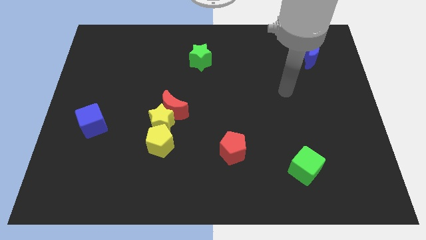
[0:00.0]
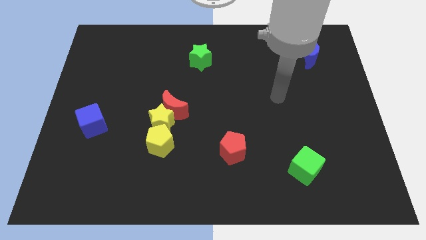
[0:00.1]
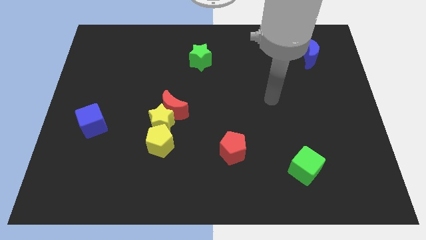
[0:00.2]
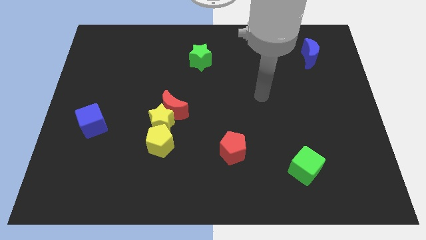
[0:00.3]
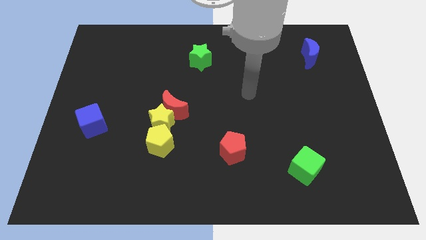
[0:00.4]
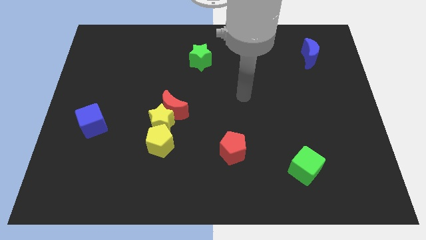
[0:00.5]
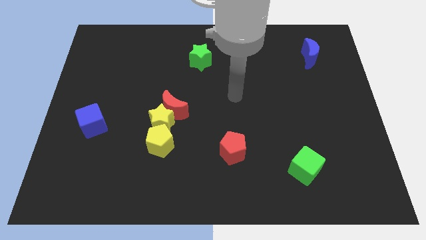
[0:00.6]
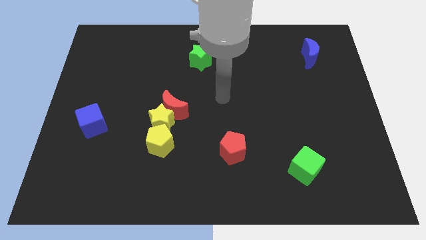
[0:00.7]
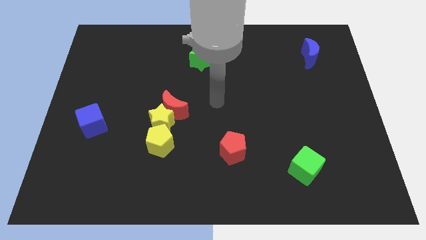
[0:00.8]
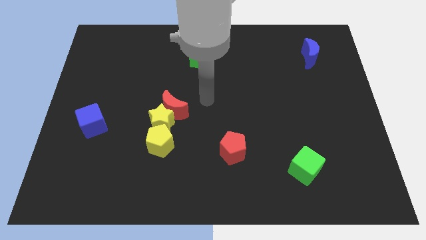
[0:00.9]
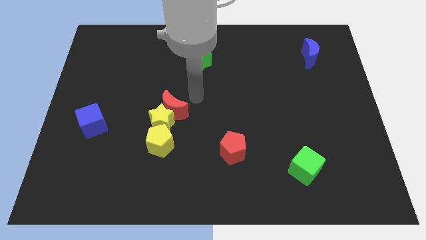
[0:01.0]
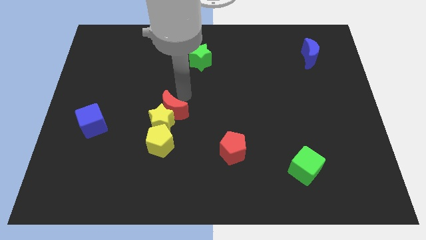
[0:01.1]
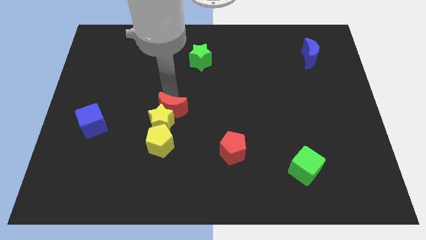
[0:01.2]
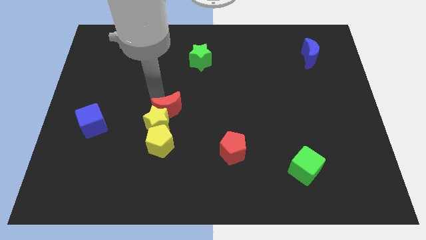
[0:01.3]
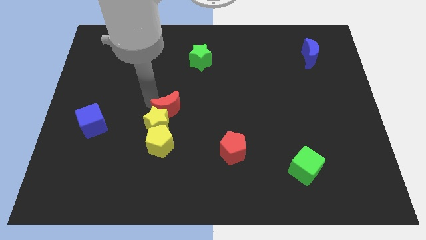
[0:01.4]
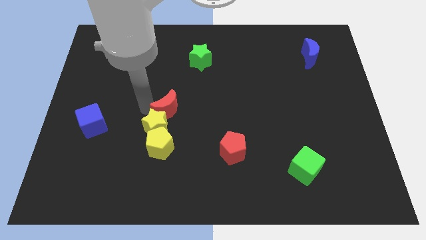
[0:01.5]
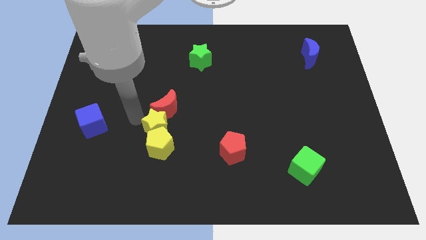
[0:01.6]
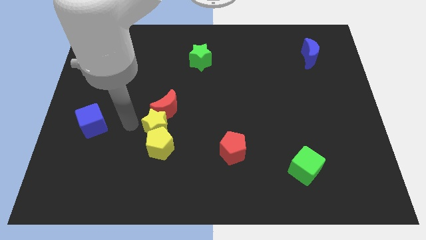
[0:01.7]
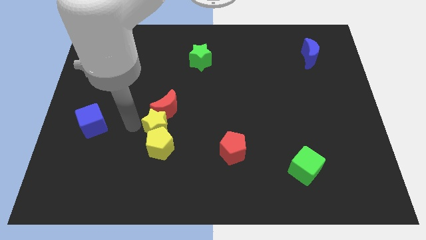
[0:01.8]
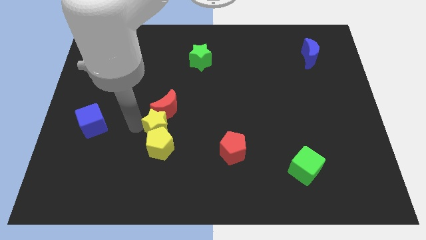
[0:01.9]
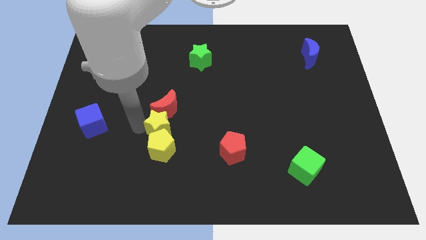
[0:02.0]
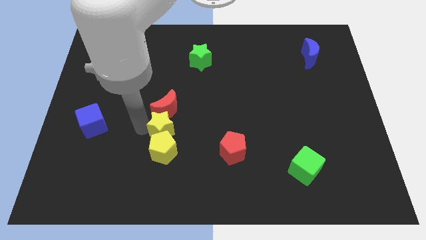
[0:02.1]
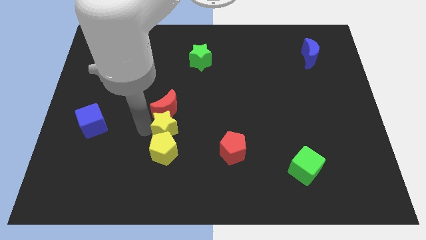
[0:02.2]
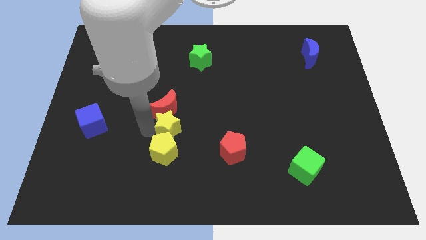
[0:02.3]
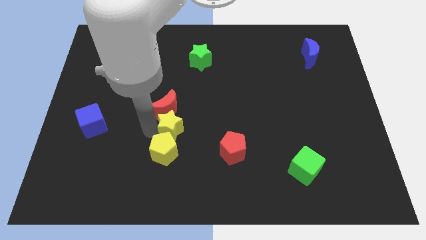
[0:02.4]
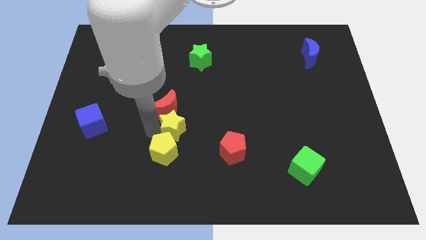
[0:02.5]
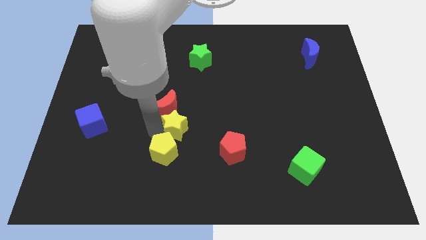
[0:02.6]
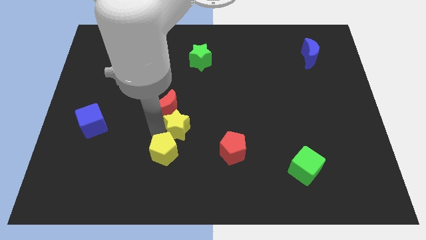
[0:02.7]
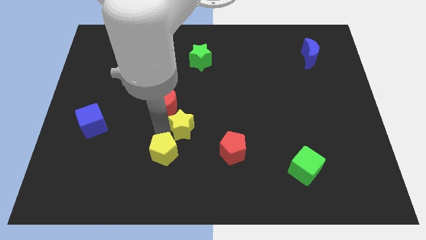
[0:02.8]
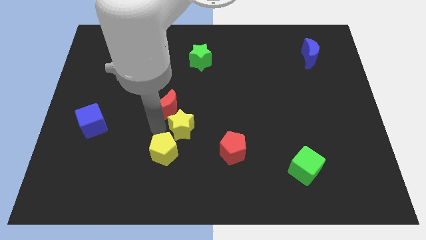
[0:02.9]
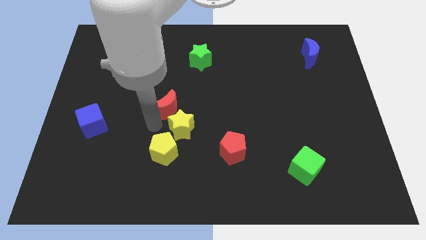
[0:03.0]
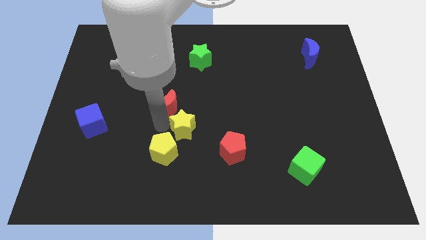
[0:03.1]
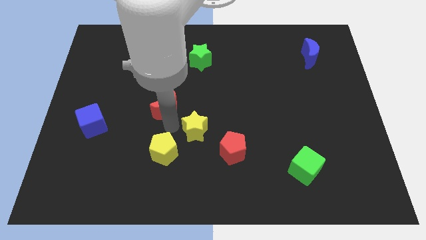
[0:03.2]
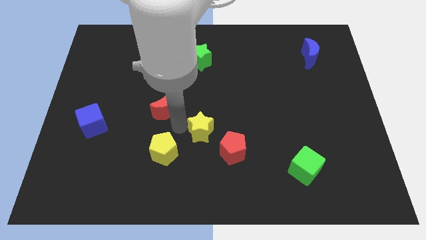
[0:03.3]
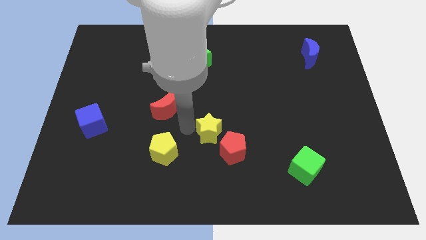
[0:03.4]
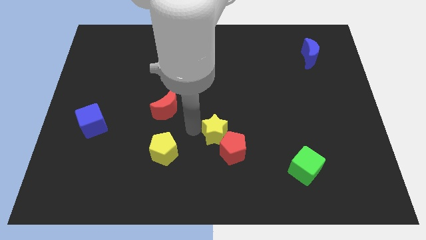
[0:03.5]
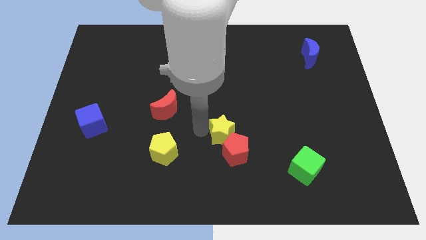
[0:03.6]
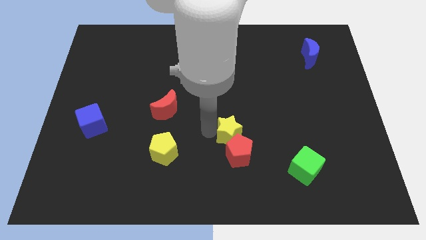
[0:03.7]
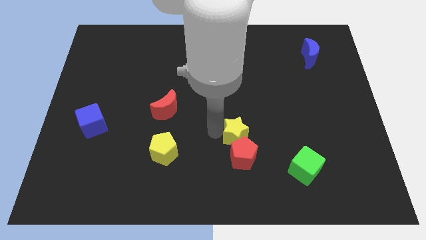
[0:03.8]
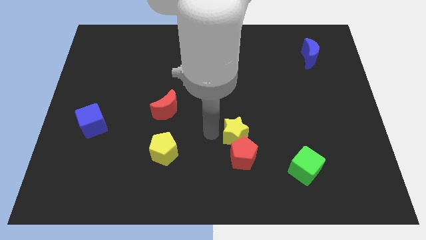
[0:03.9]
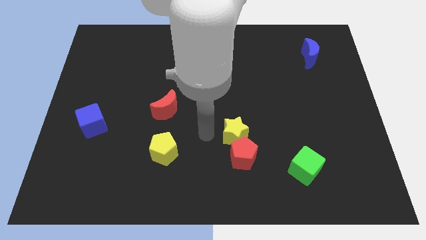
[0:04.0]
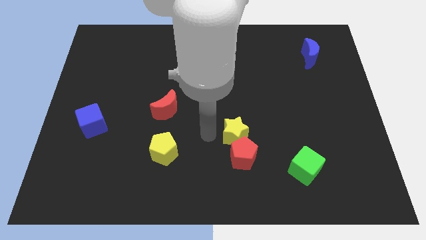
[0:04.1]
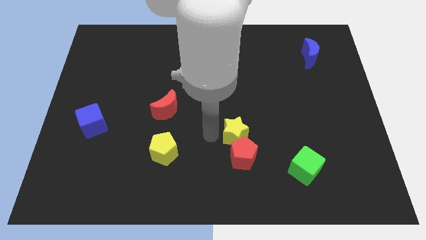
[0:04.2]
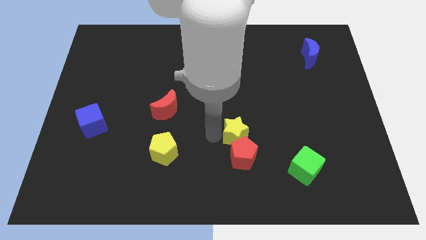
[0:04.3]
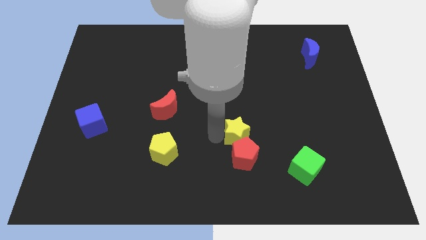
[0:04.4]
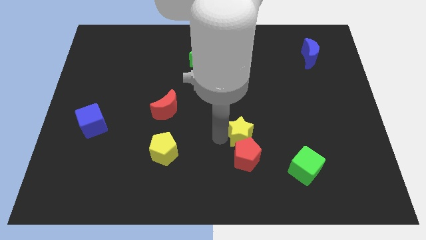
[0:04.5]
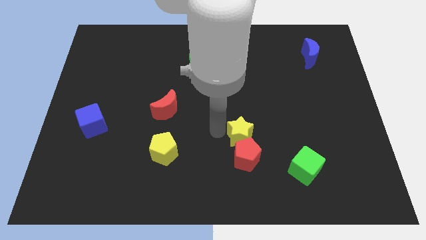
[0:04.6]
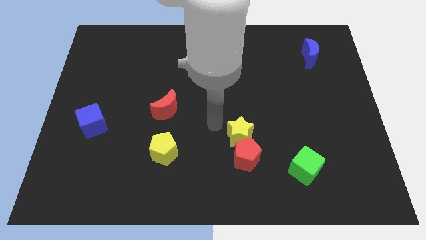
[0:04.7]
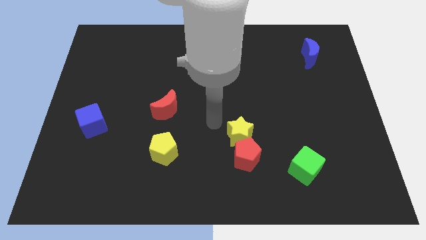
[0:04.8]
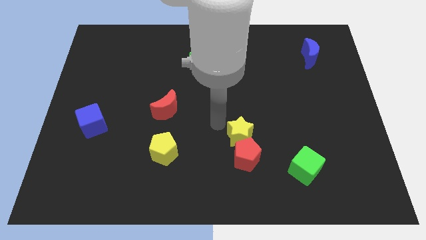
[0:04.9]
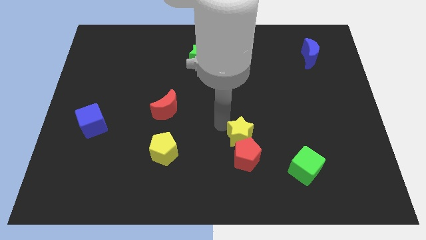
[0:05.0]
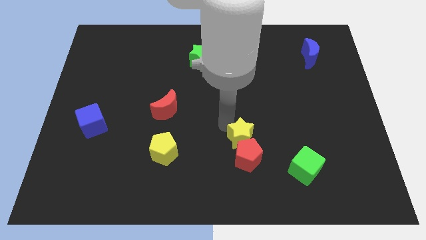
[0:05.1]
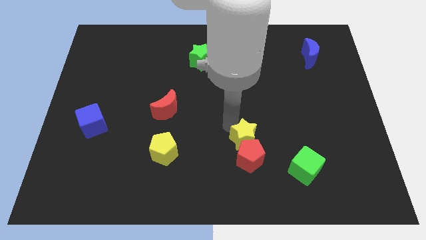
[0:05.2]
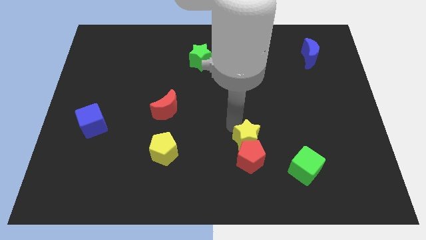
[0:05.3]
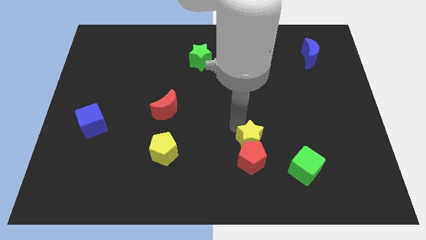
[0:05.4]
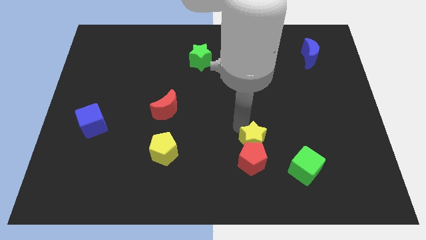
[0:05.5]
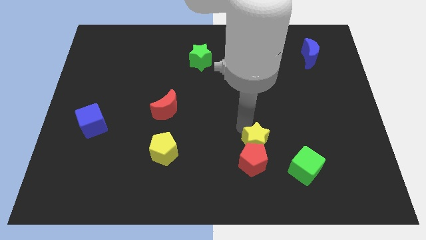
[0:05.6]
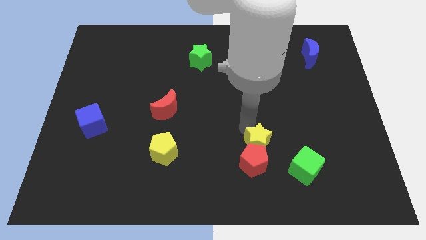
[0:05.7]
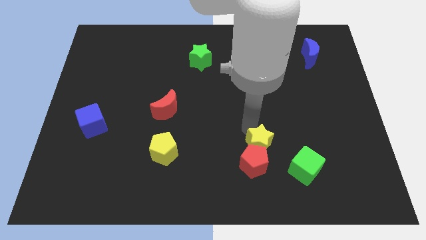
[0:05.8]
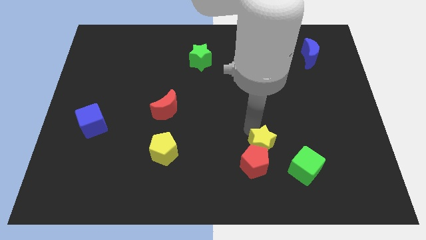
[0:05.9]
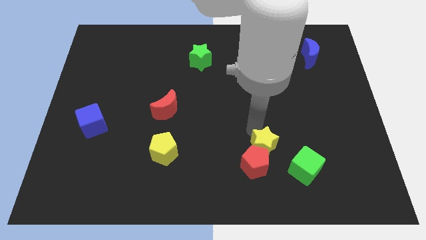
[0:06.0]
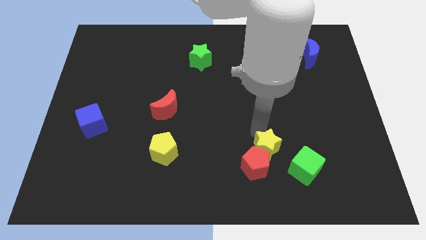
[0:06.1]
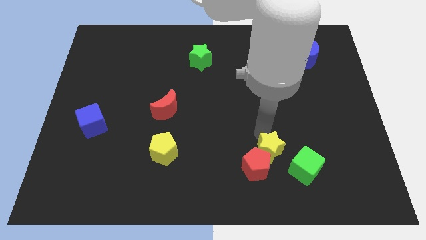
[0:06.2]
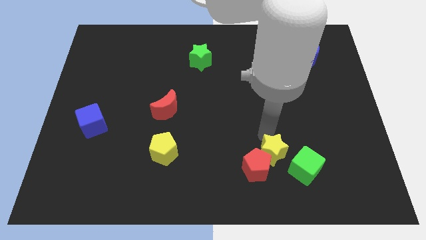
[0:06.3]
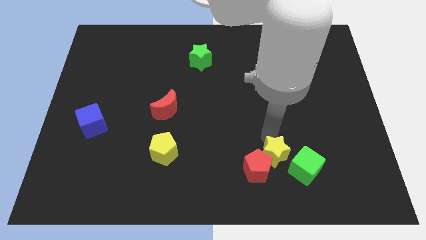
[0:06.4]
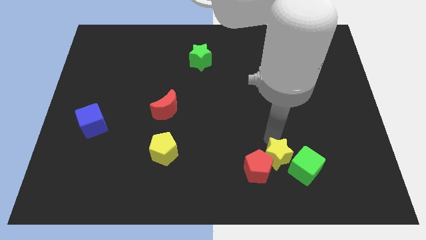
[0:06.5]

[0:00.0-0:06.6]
push the yellow star next to the green cube

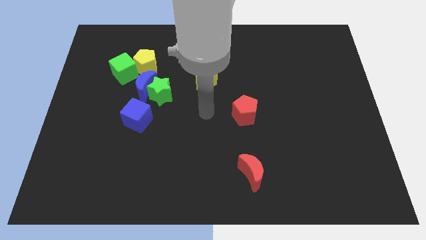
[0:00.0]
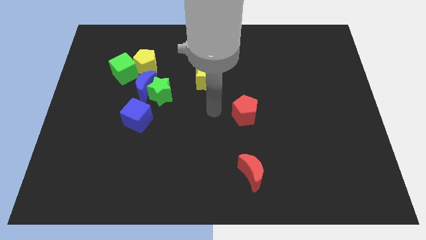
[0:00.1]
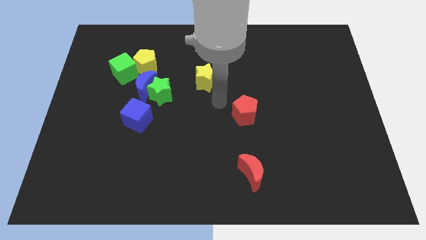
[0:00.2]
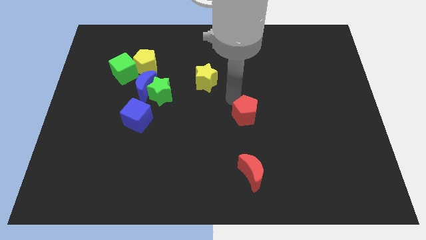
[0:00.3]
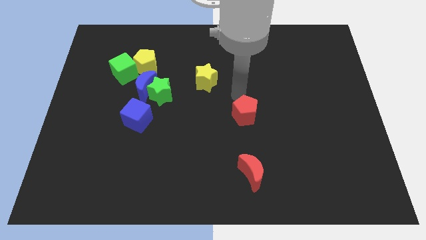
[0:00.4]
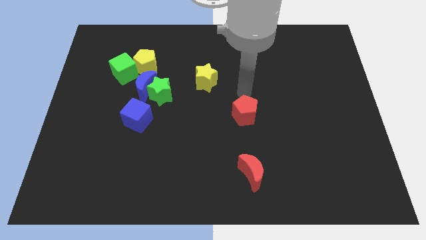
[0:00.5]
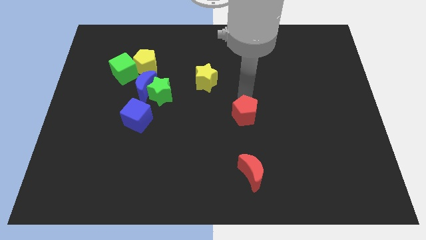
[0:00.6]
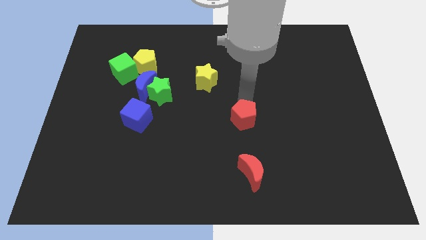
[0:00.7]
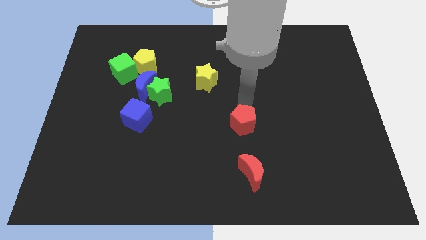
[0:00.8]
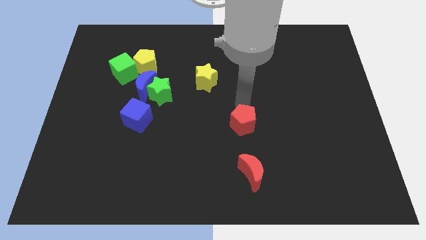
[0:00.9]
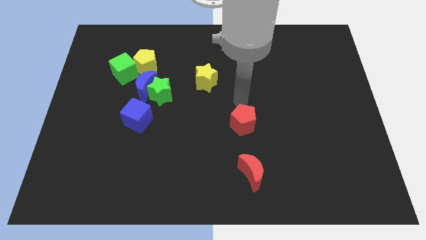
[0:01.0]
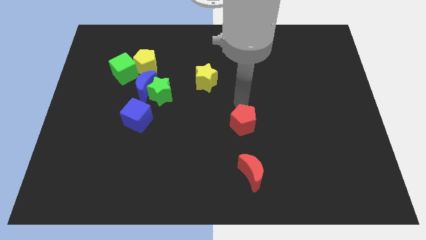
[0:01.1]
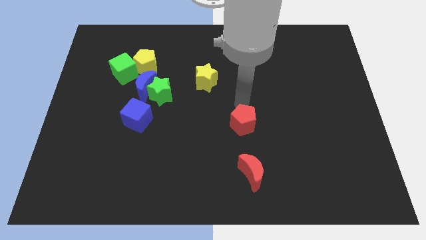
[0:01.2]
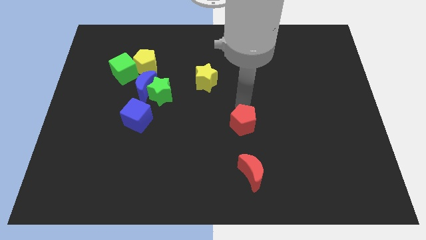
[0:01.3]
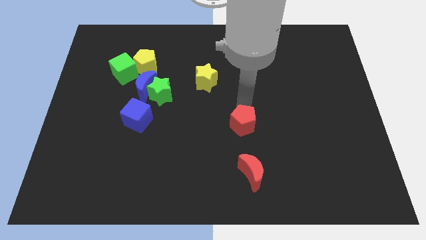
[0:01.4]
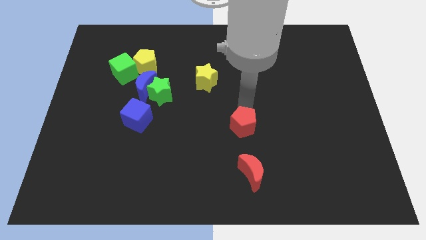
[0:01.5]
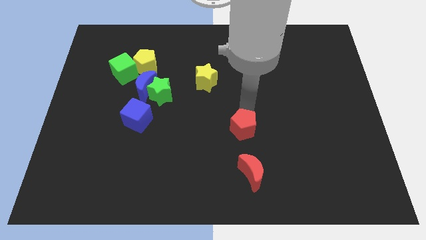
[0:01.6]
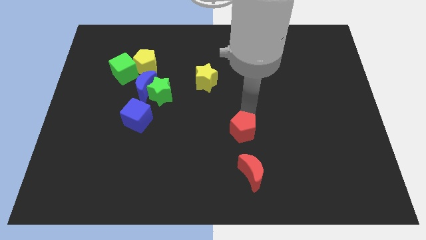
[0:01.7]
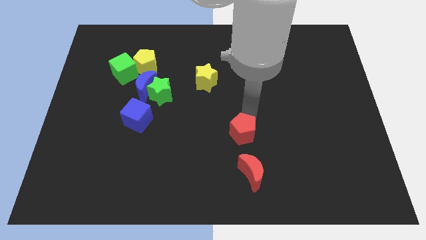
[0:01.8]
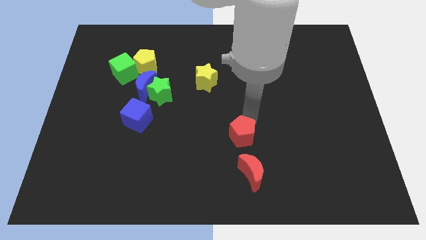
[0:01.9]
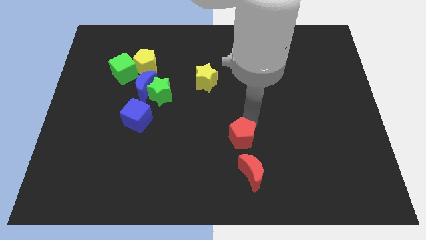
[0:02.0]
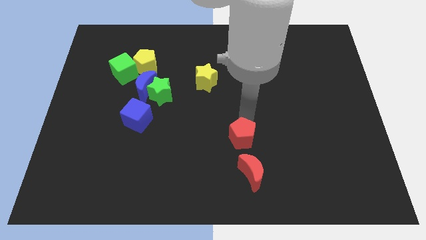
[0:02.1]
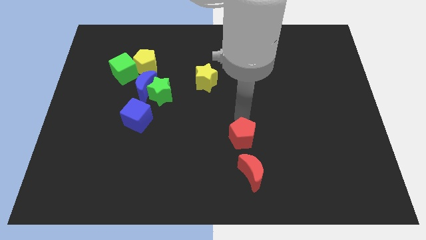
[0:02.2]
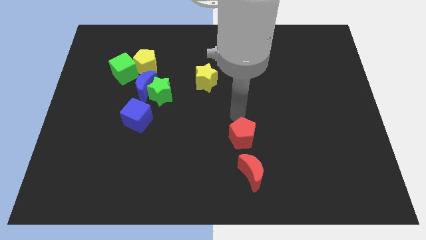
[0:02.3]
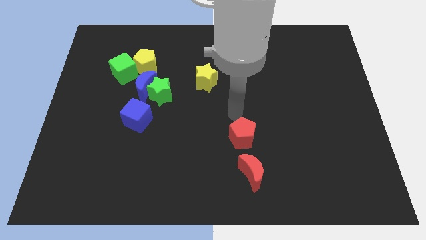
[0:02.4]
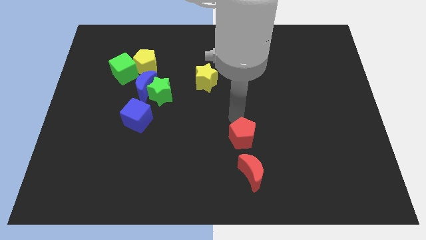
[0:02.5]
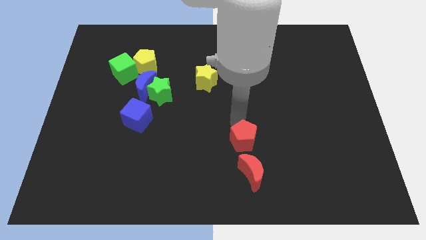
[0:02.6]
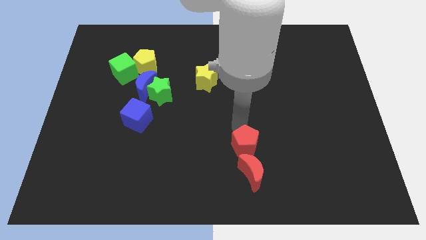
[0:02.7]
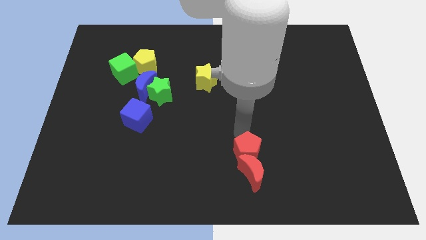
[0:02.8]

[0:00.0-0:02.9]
slide the red pentagon close to the red moon
